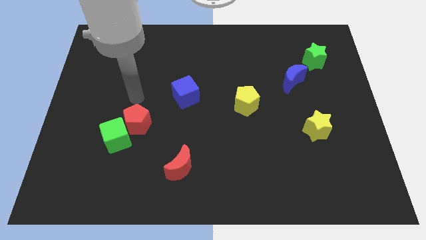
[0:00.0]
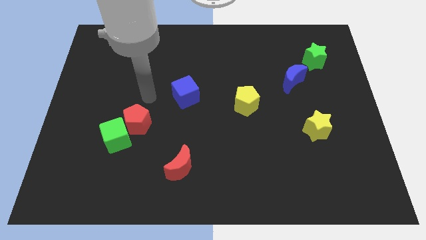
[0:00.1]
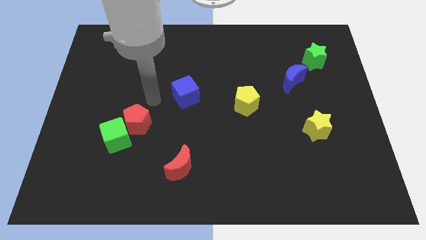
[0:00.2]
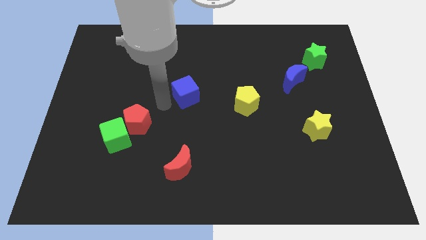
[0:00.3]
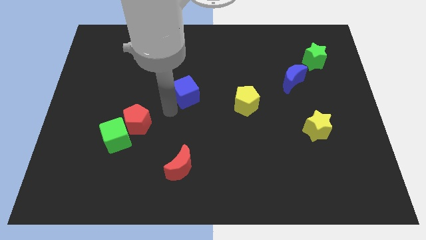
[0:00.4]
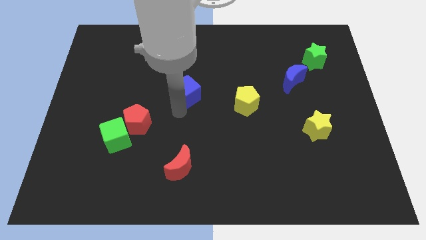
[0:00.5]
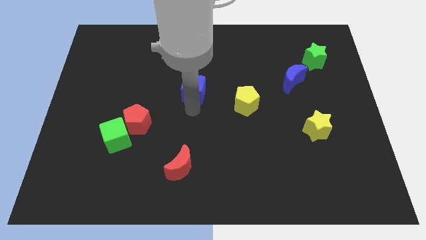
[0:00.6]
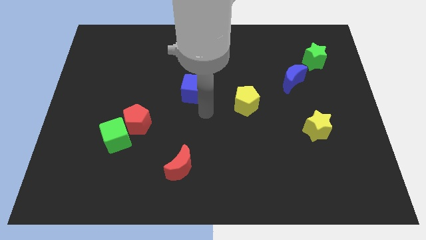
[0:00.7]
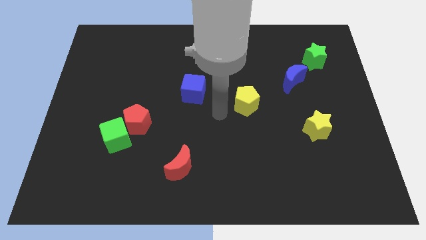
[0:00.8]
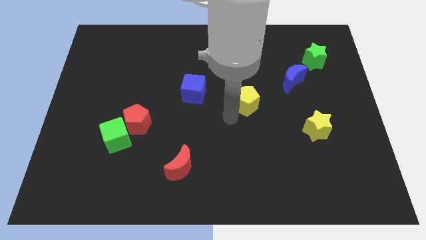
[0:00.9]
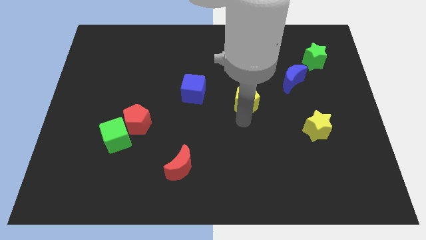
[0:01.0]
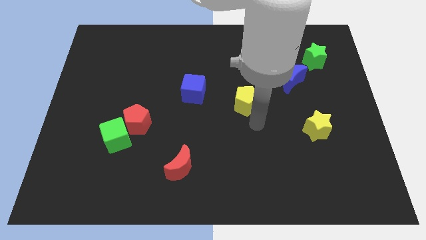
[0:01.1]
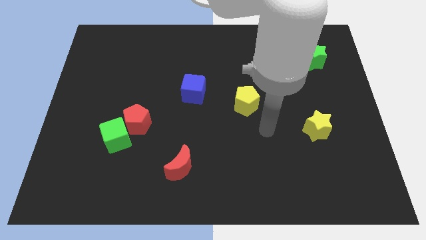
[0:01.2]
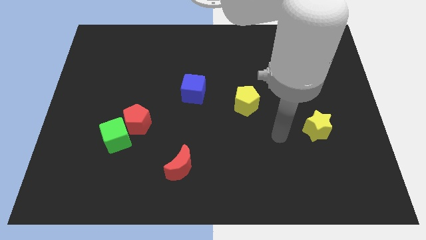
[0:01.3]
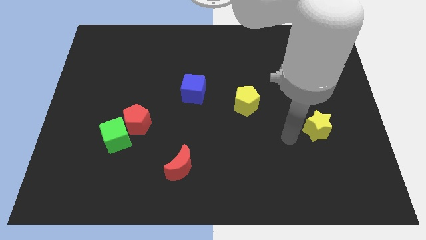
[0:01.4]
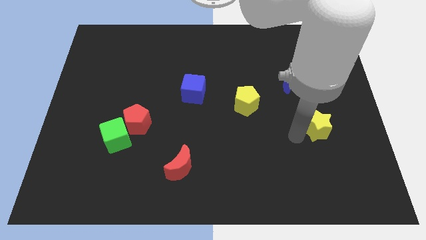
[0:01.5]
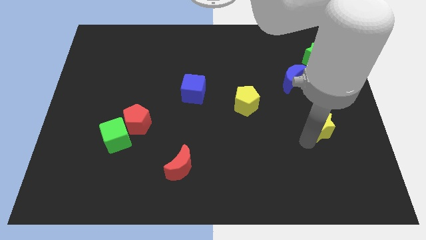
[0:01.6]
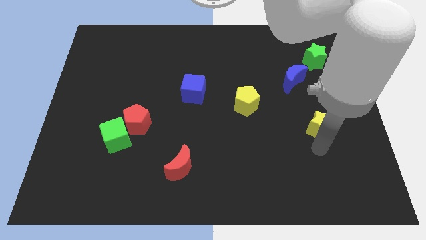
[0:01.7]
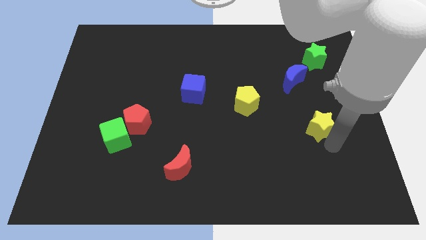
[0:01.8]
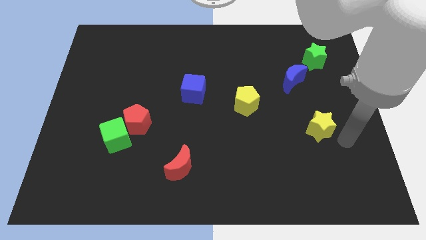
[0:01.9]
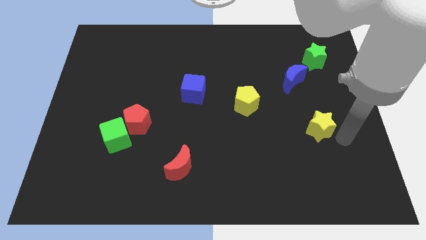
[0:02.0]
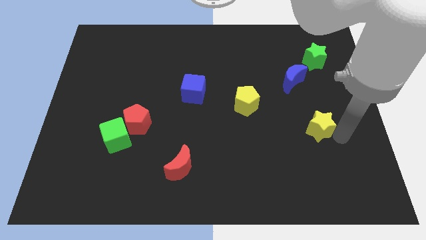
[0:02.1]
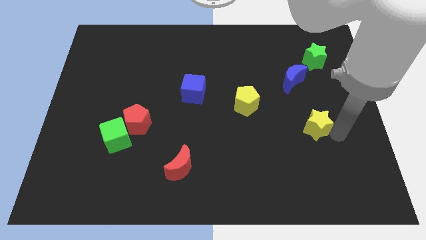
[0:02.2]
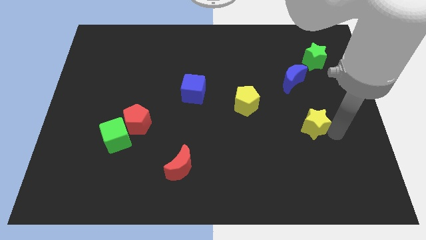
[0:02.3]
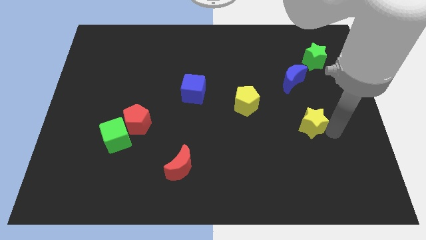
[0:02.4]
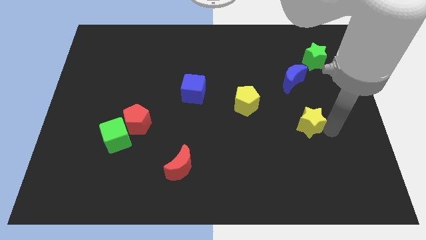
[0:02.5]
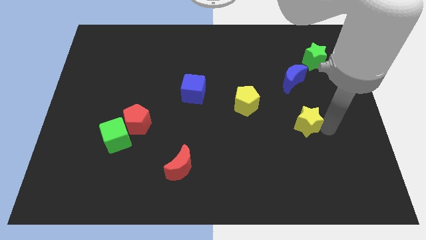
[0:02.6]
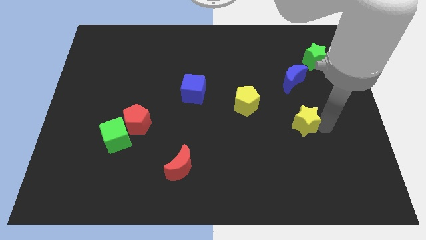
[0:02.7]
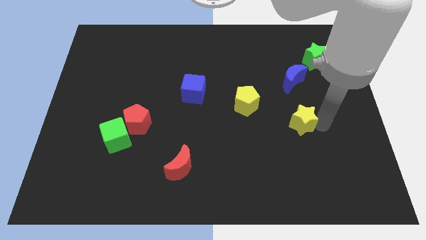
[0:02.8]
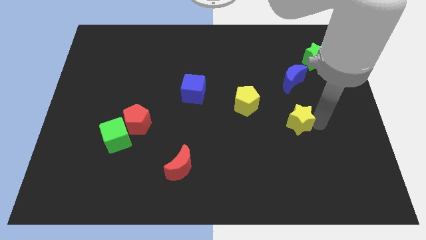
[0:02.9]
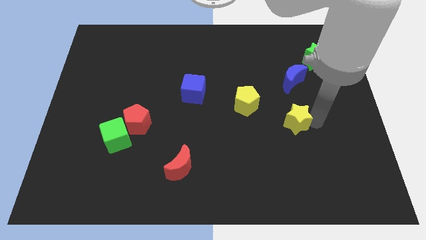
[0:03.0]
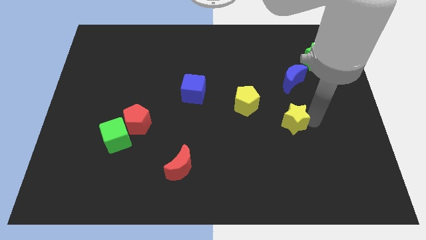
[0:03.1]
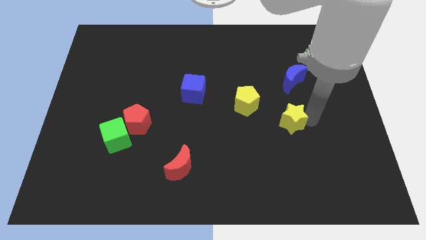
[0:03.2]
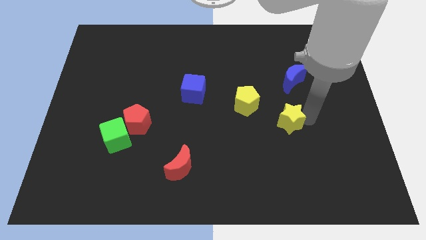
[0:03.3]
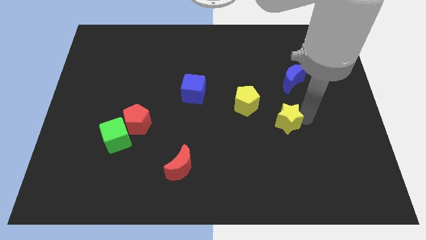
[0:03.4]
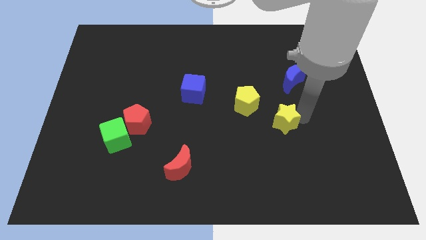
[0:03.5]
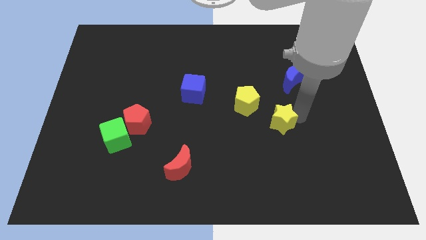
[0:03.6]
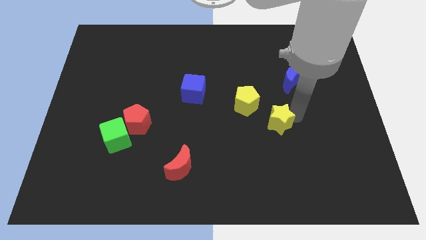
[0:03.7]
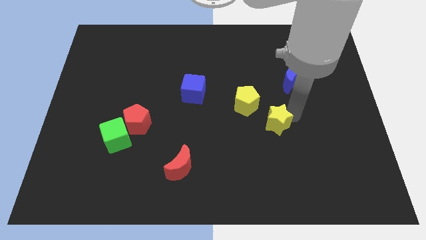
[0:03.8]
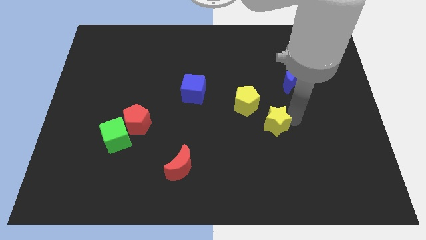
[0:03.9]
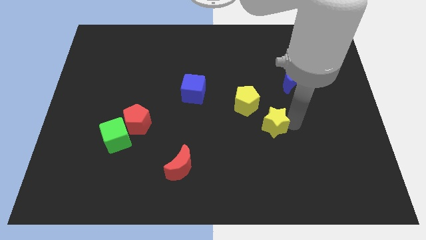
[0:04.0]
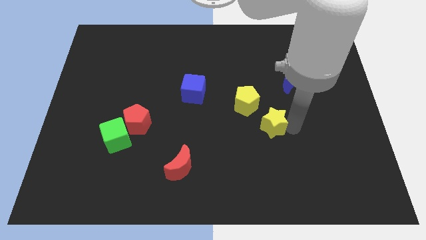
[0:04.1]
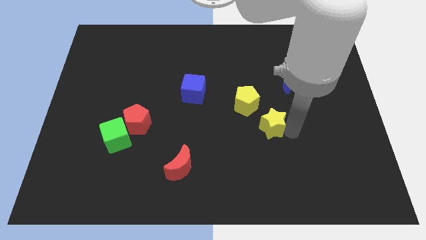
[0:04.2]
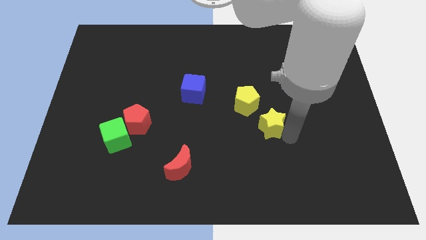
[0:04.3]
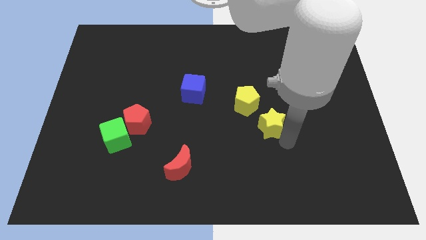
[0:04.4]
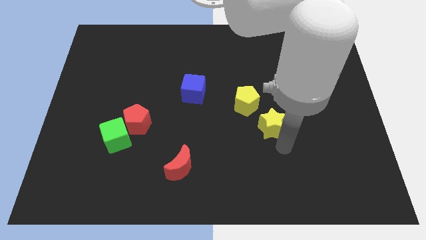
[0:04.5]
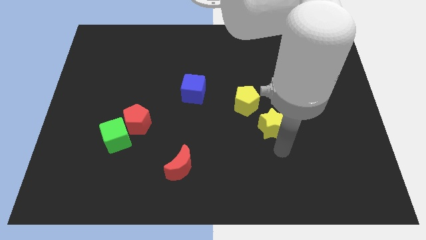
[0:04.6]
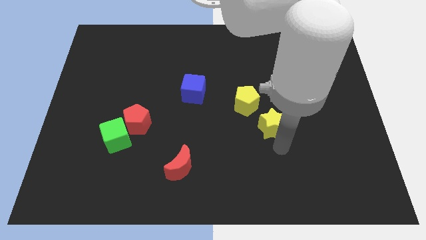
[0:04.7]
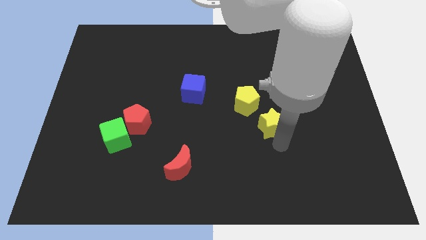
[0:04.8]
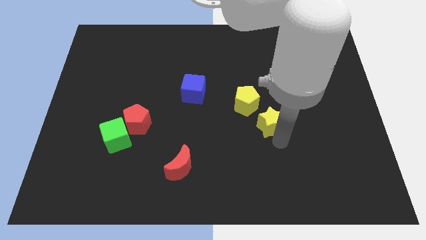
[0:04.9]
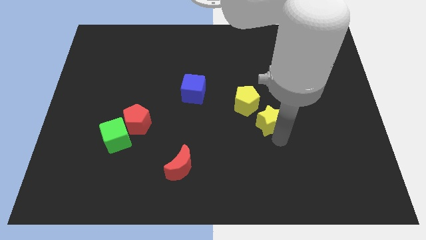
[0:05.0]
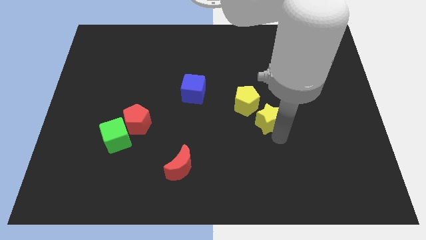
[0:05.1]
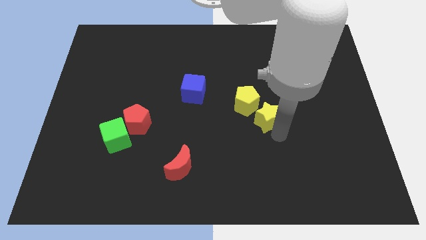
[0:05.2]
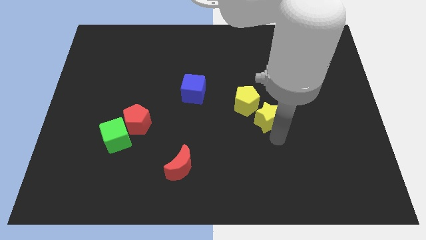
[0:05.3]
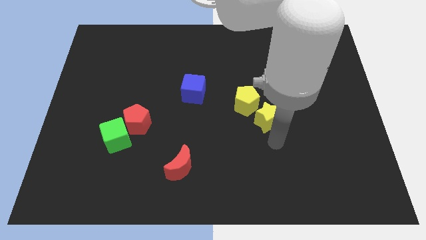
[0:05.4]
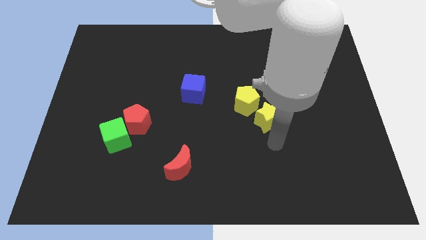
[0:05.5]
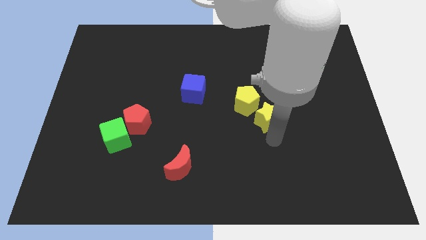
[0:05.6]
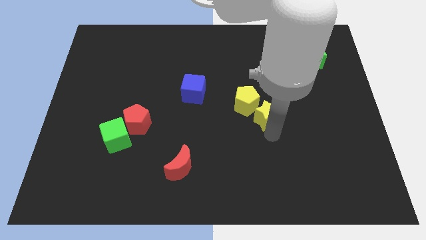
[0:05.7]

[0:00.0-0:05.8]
put the yellow star to the yellow pentagon

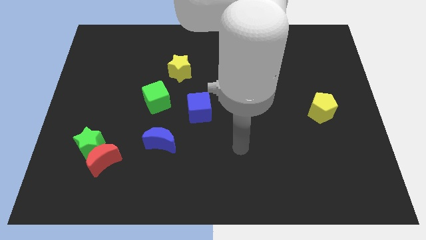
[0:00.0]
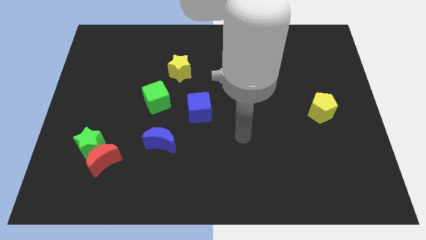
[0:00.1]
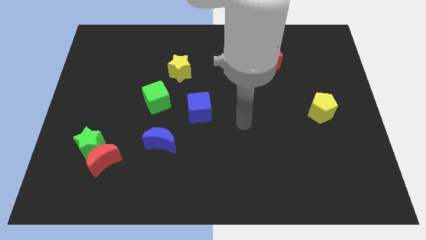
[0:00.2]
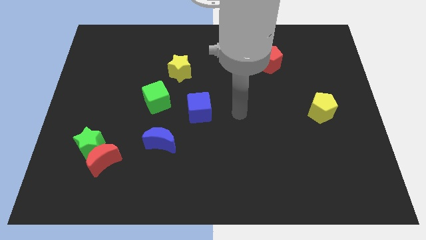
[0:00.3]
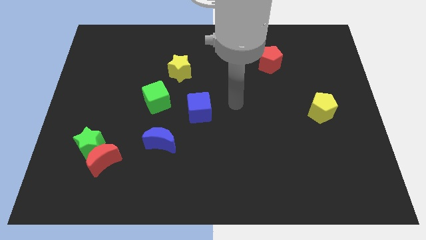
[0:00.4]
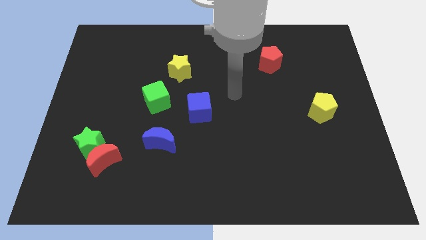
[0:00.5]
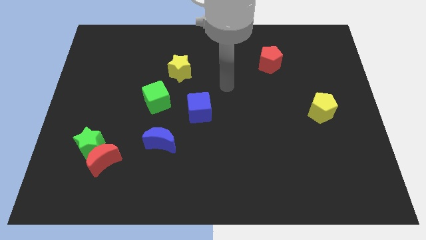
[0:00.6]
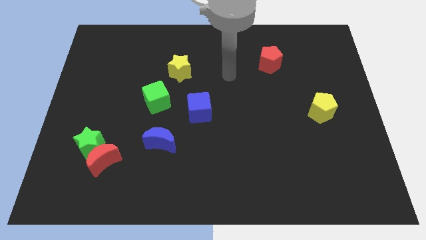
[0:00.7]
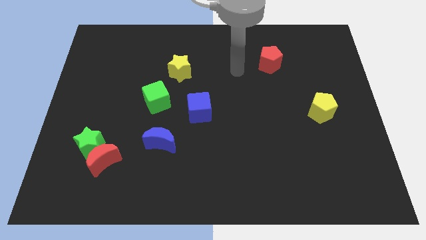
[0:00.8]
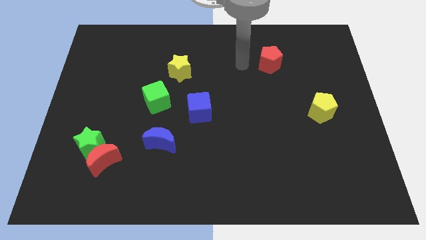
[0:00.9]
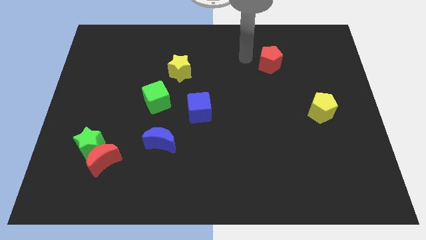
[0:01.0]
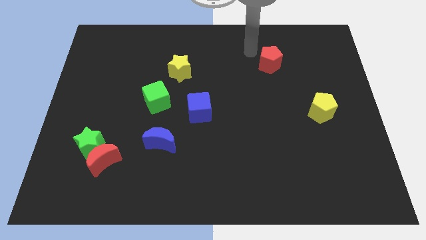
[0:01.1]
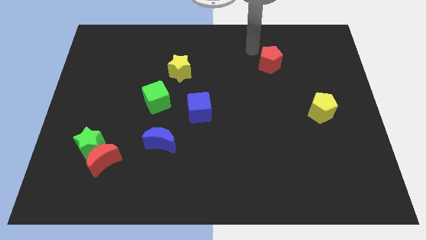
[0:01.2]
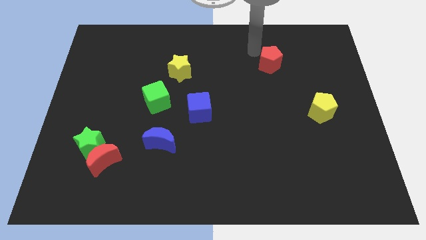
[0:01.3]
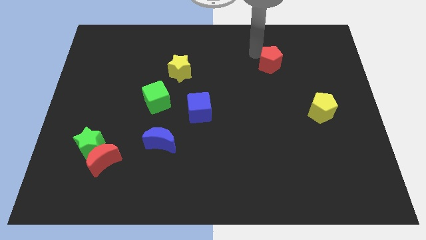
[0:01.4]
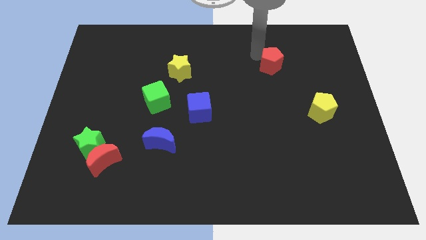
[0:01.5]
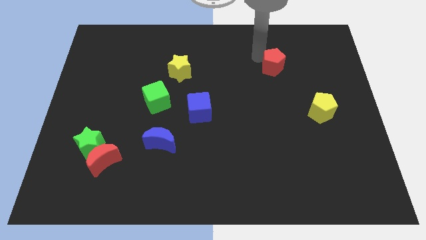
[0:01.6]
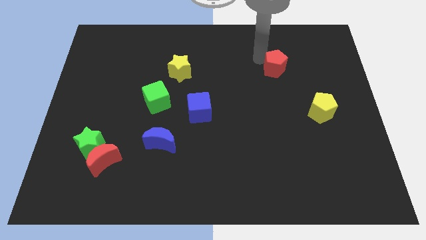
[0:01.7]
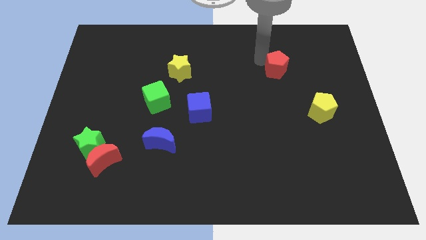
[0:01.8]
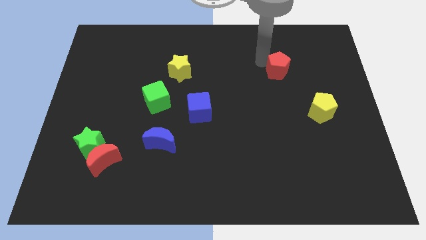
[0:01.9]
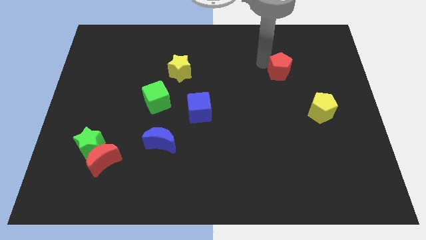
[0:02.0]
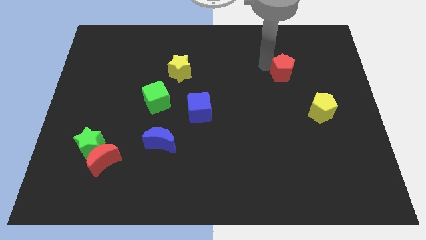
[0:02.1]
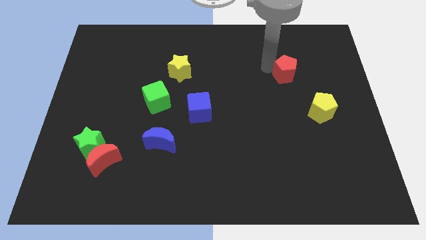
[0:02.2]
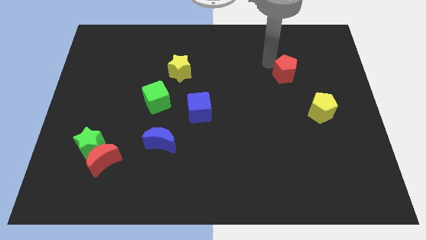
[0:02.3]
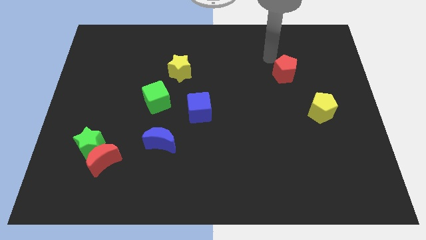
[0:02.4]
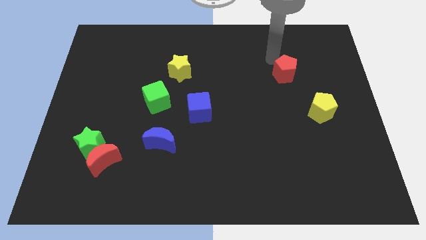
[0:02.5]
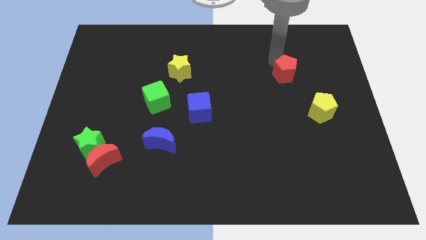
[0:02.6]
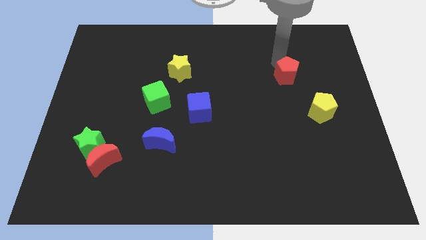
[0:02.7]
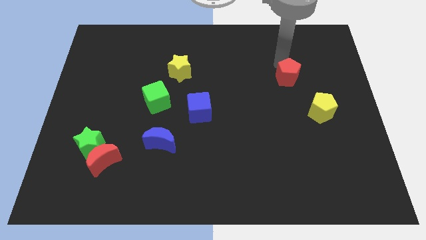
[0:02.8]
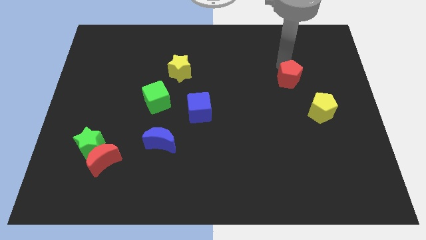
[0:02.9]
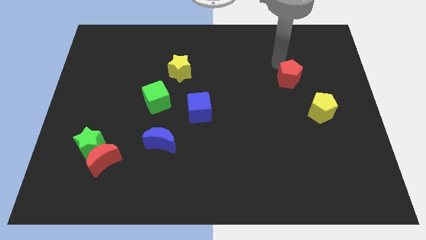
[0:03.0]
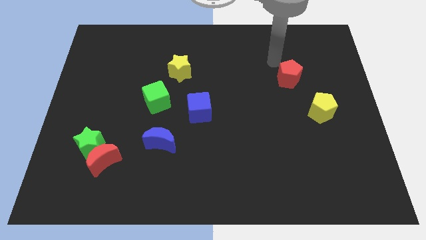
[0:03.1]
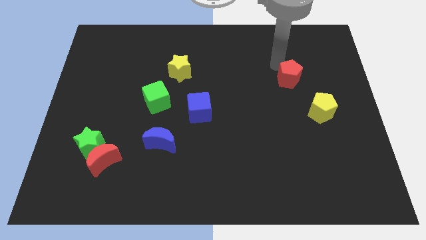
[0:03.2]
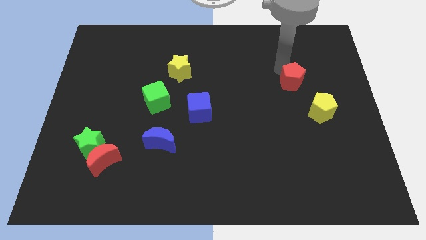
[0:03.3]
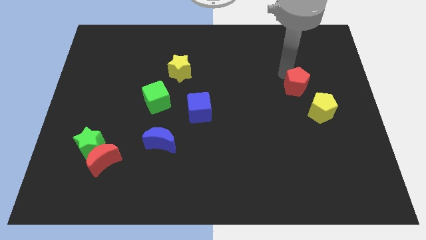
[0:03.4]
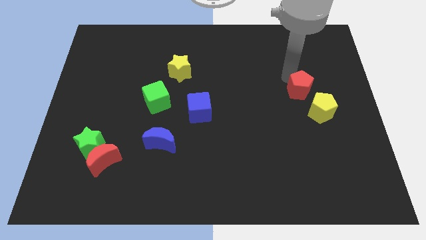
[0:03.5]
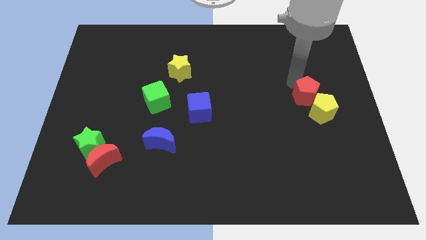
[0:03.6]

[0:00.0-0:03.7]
push the red pentagon towards the yellow pentagon
